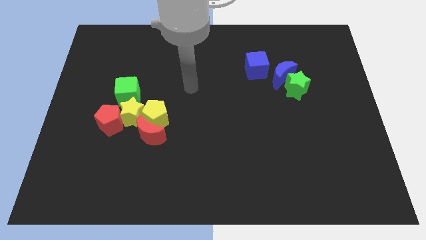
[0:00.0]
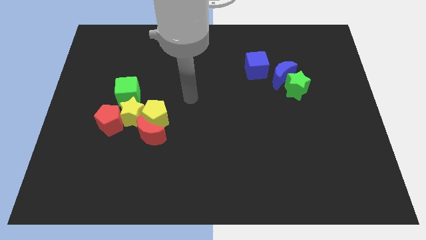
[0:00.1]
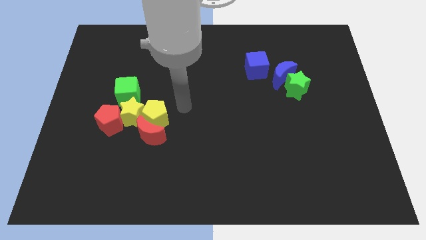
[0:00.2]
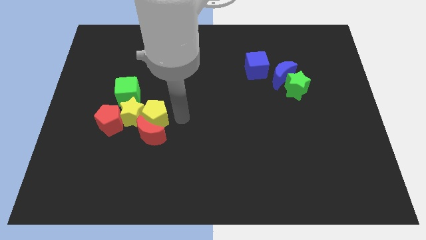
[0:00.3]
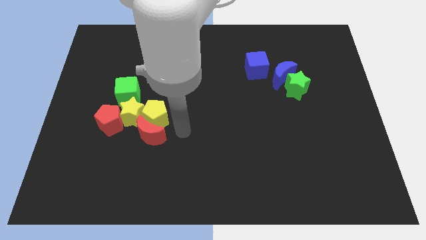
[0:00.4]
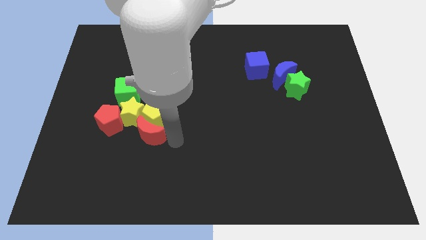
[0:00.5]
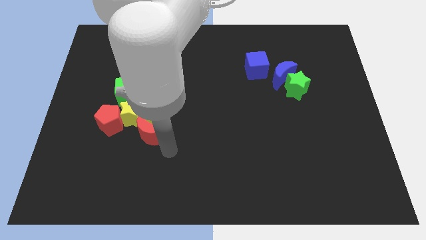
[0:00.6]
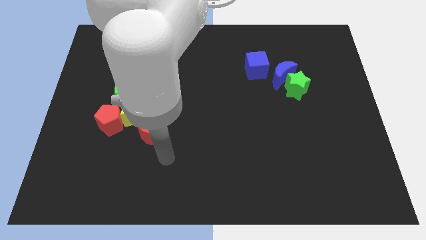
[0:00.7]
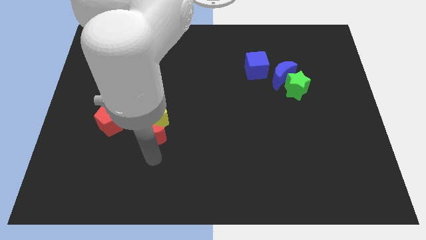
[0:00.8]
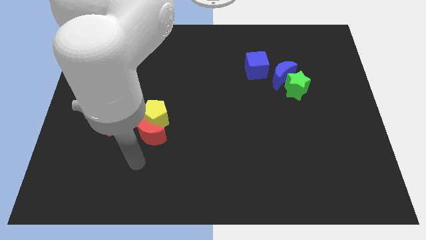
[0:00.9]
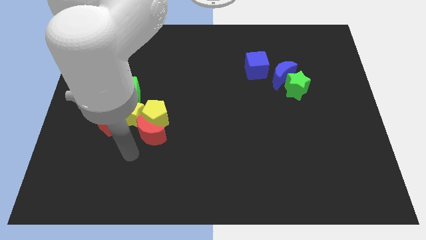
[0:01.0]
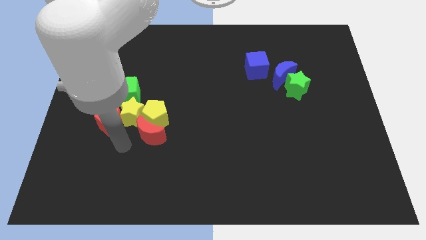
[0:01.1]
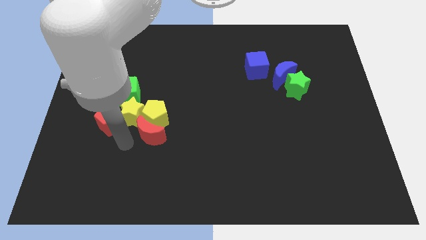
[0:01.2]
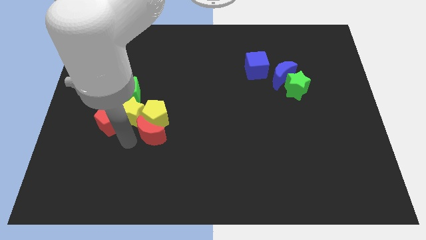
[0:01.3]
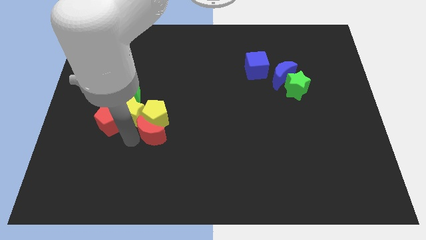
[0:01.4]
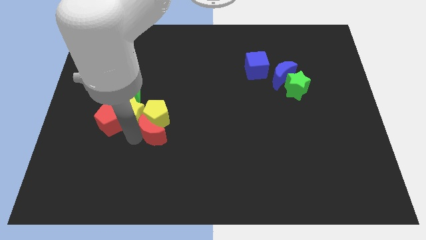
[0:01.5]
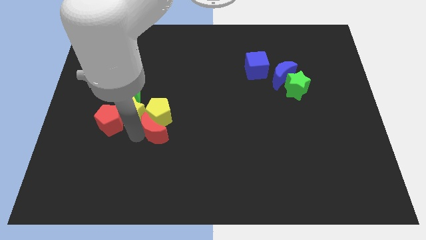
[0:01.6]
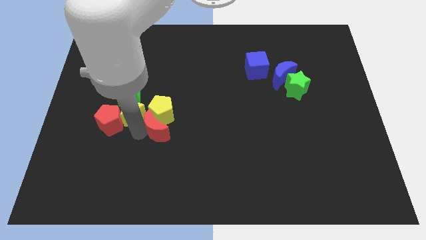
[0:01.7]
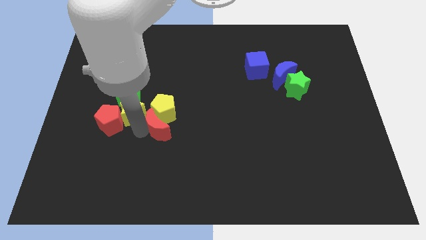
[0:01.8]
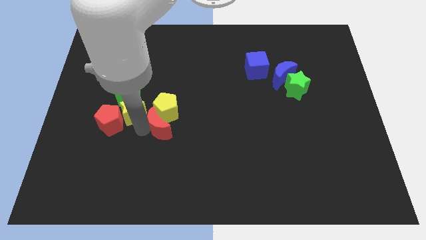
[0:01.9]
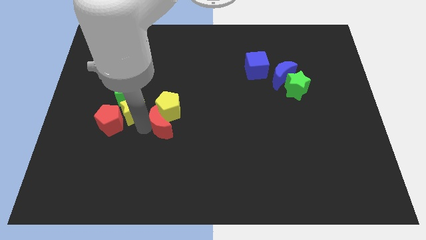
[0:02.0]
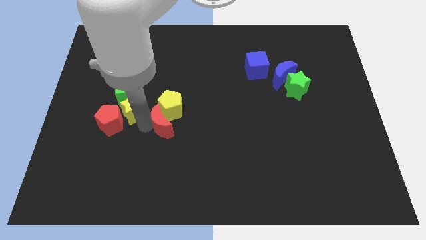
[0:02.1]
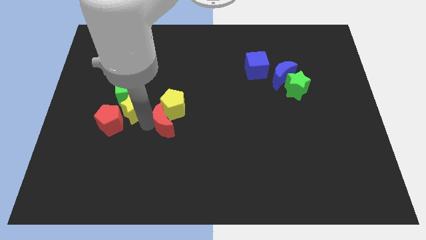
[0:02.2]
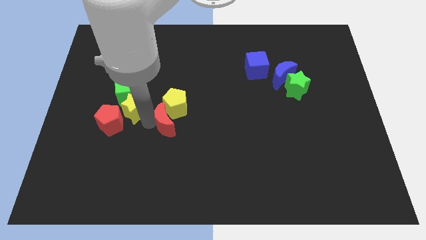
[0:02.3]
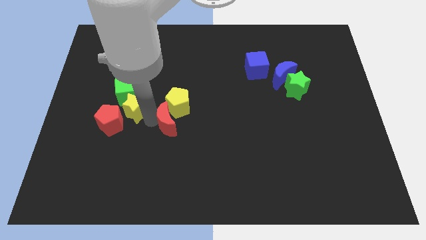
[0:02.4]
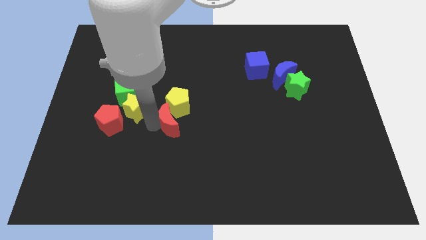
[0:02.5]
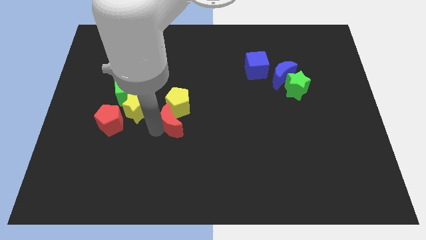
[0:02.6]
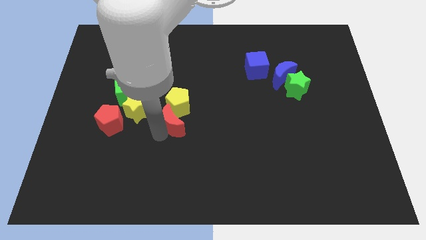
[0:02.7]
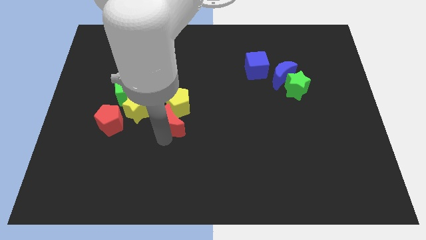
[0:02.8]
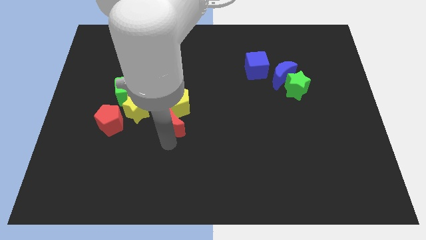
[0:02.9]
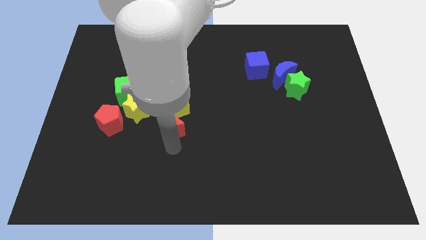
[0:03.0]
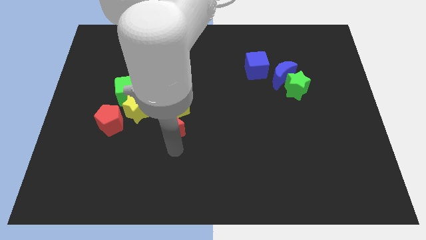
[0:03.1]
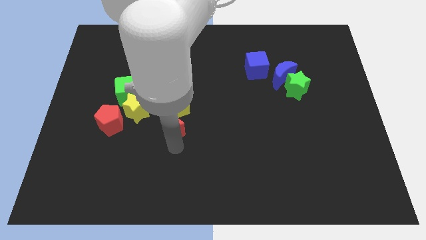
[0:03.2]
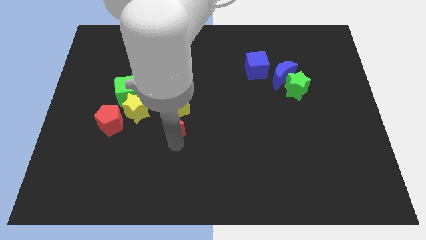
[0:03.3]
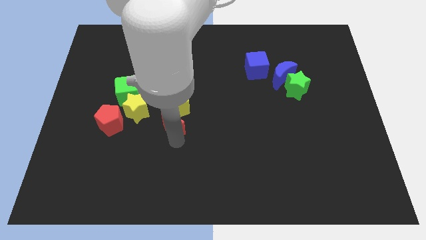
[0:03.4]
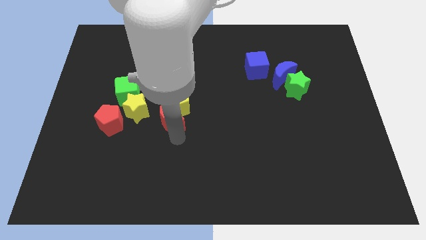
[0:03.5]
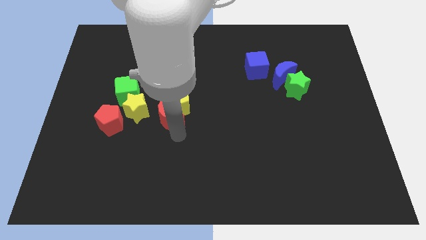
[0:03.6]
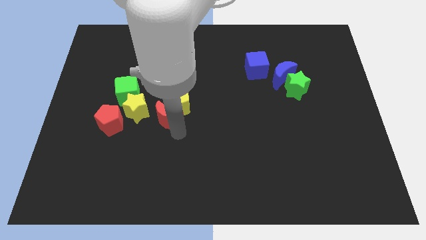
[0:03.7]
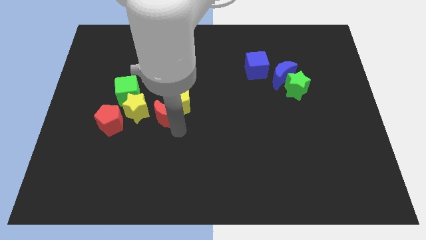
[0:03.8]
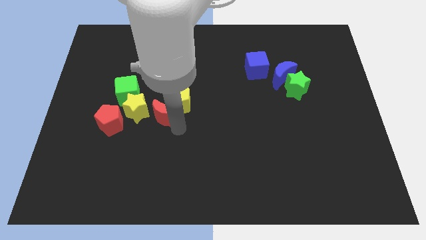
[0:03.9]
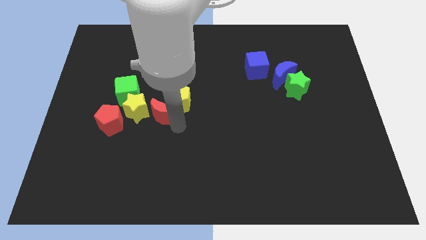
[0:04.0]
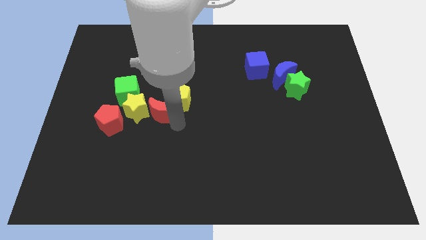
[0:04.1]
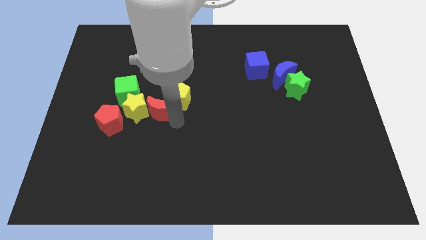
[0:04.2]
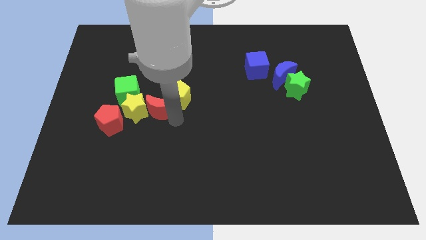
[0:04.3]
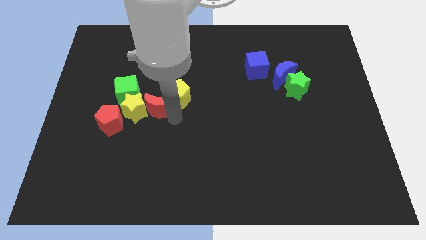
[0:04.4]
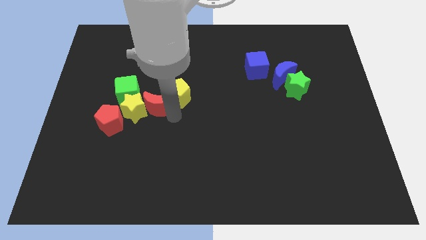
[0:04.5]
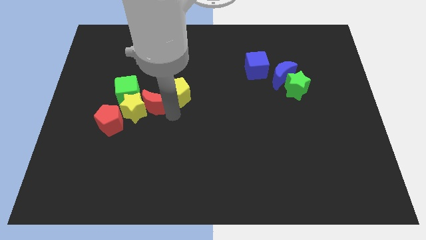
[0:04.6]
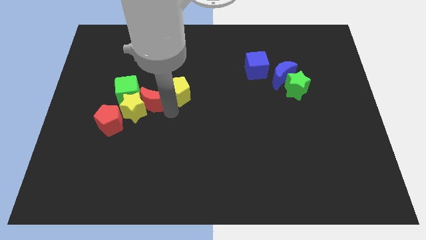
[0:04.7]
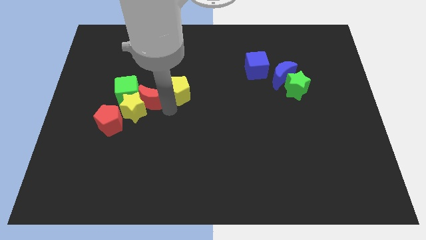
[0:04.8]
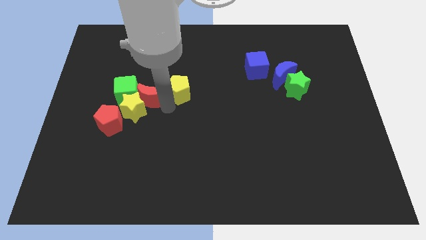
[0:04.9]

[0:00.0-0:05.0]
put the red moon close to the green cube

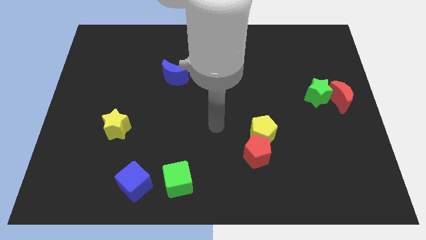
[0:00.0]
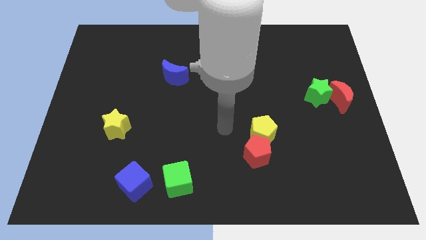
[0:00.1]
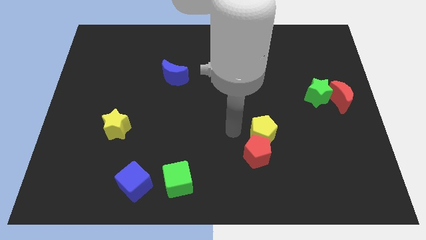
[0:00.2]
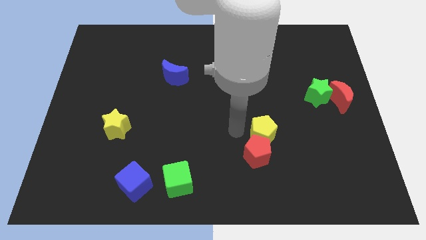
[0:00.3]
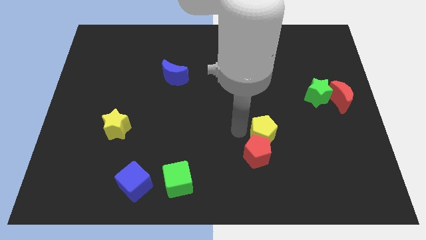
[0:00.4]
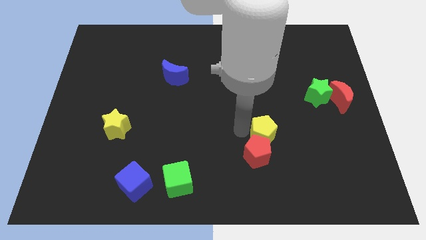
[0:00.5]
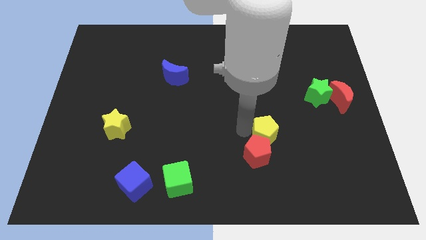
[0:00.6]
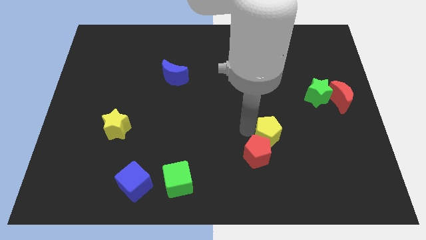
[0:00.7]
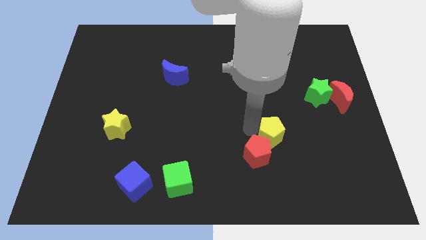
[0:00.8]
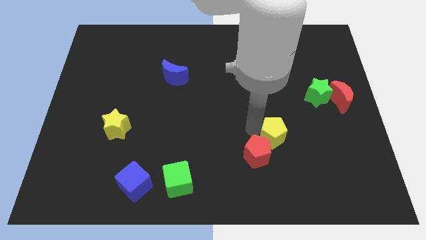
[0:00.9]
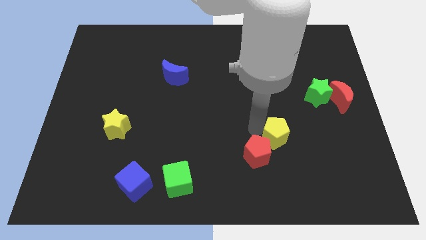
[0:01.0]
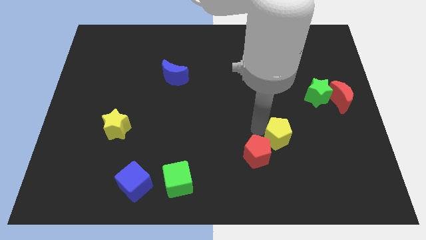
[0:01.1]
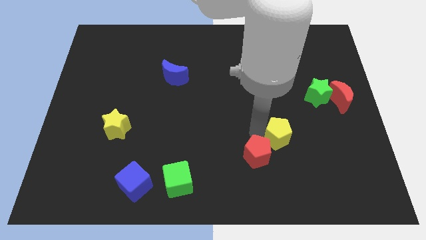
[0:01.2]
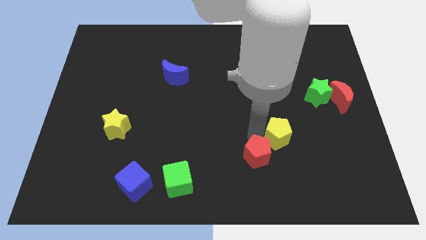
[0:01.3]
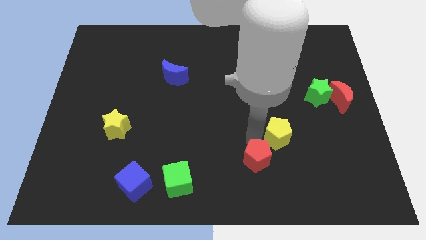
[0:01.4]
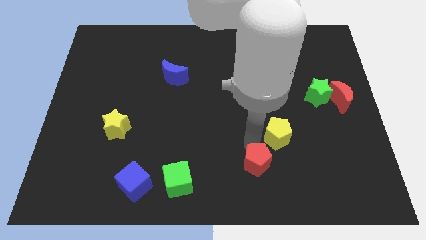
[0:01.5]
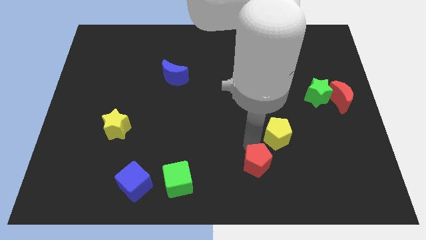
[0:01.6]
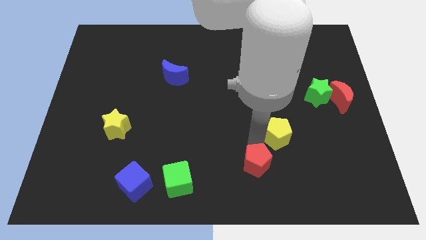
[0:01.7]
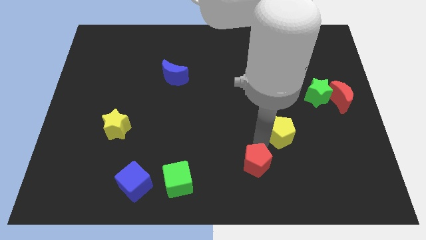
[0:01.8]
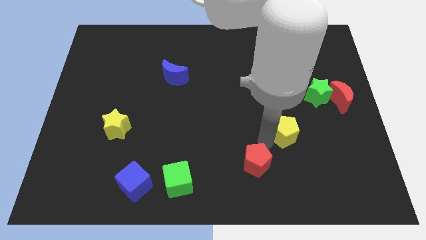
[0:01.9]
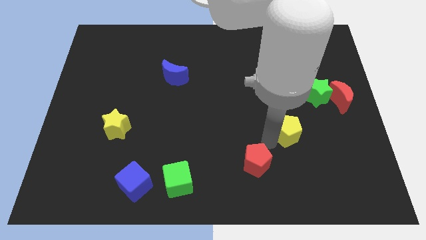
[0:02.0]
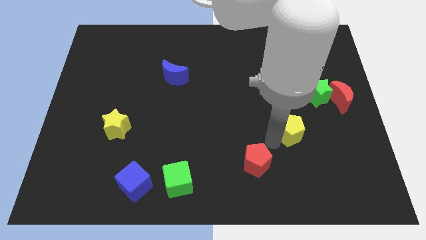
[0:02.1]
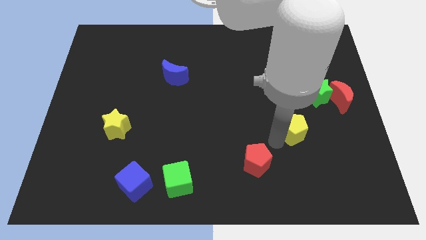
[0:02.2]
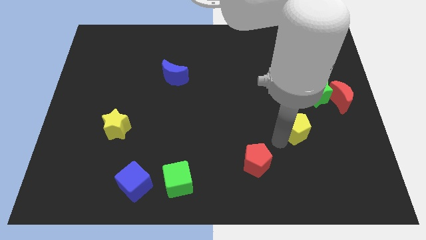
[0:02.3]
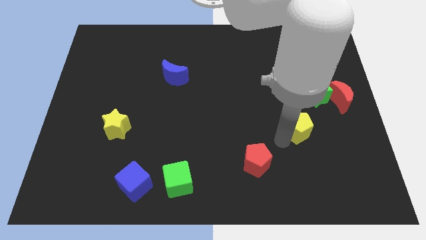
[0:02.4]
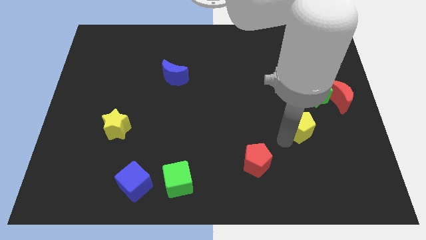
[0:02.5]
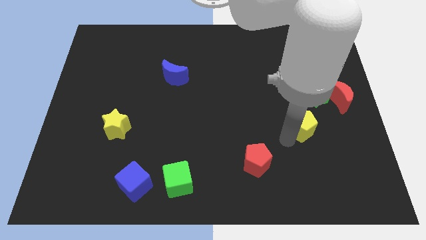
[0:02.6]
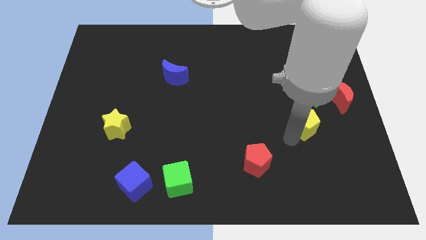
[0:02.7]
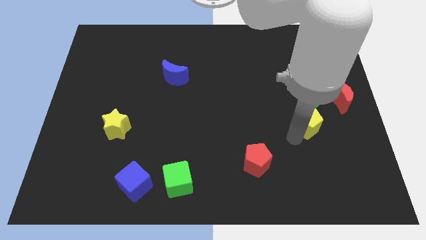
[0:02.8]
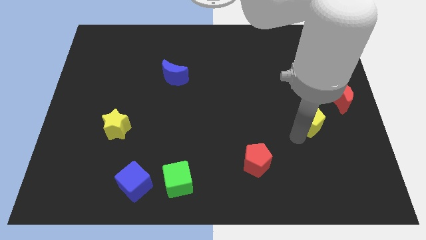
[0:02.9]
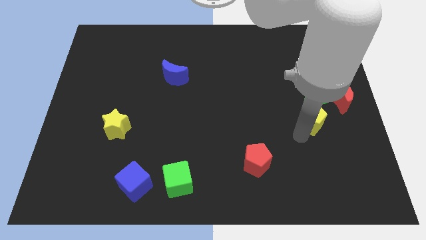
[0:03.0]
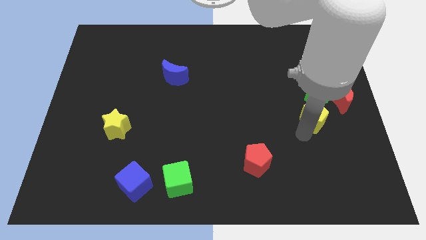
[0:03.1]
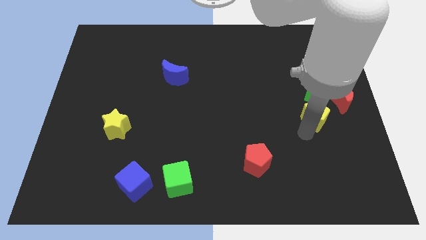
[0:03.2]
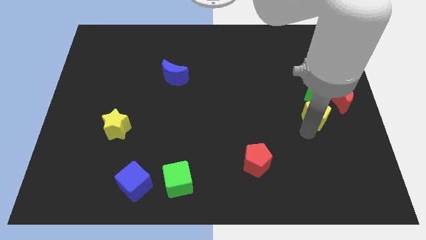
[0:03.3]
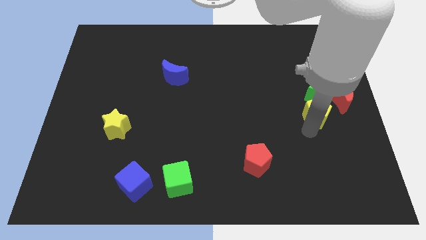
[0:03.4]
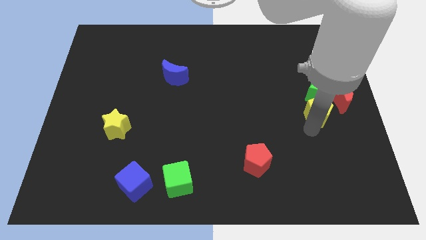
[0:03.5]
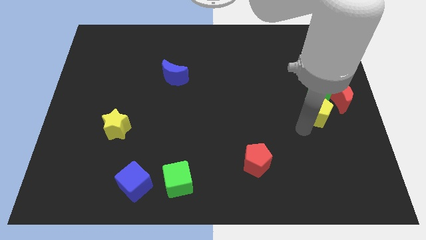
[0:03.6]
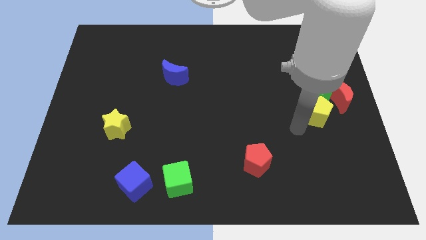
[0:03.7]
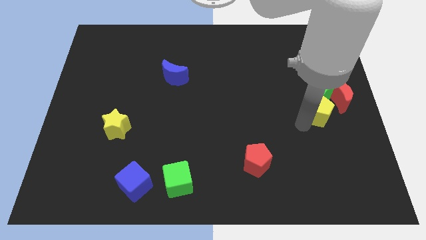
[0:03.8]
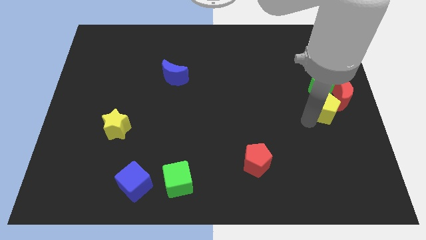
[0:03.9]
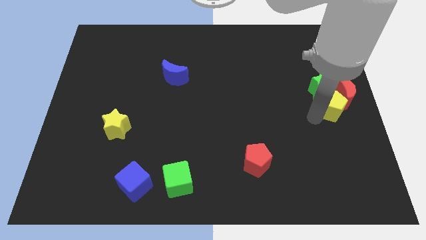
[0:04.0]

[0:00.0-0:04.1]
put the yellow pentagon close to the red moon
